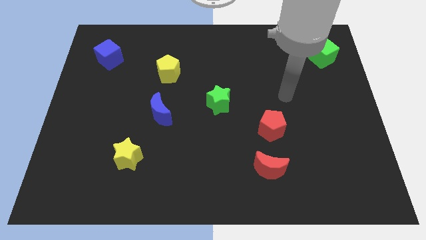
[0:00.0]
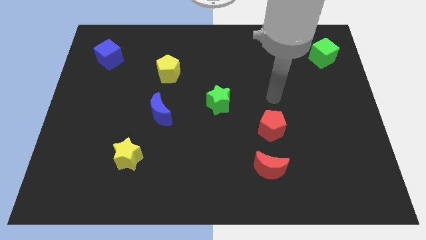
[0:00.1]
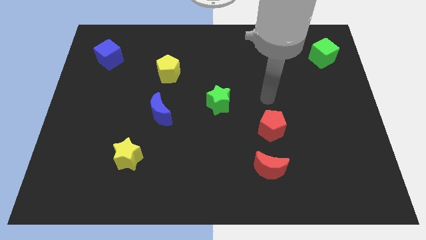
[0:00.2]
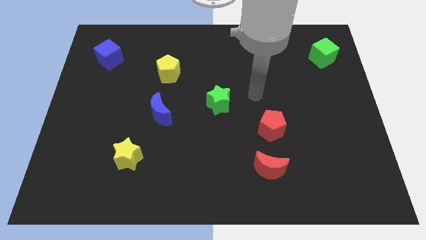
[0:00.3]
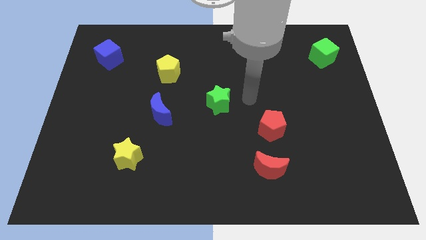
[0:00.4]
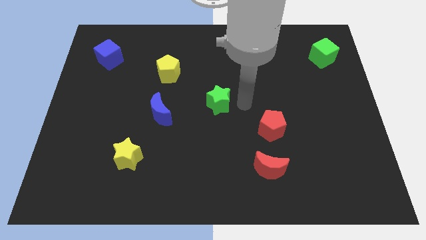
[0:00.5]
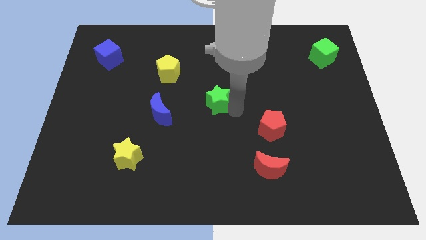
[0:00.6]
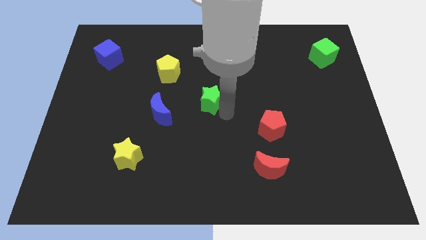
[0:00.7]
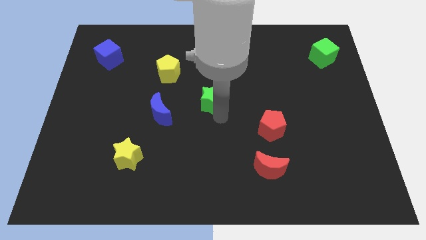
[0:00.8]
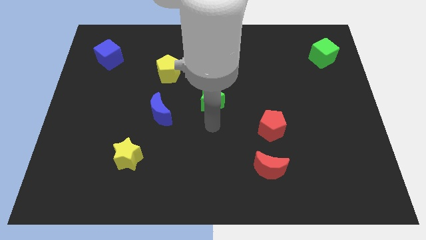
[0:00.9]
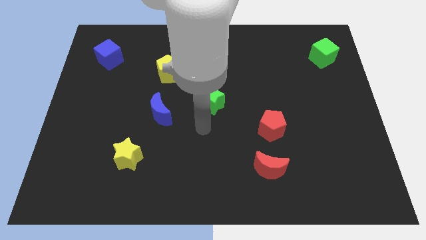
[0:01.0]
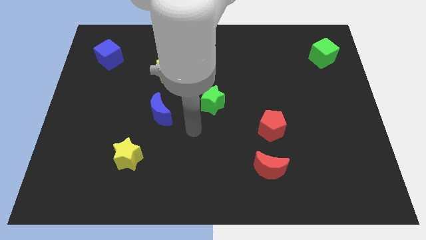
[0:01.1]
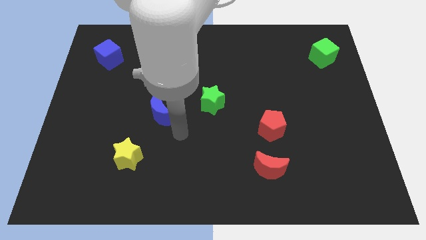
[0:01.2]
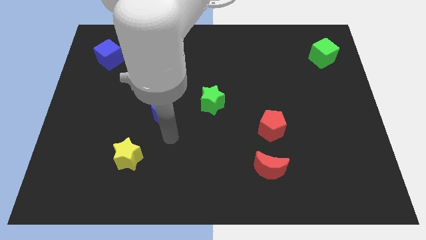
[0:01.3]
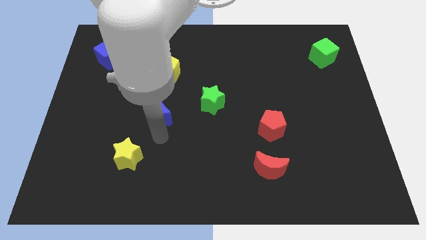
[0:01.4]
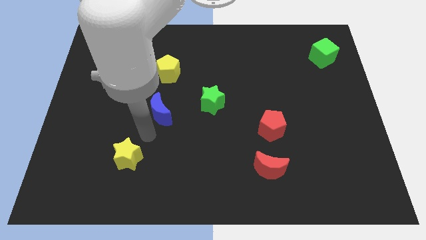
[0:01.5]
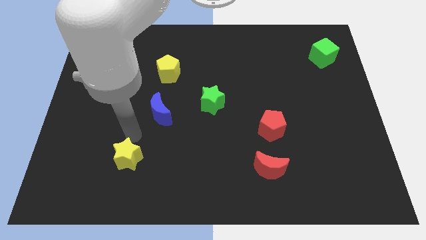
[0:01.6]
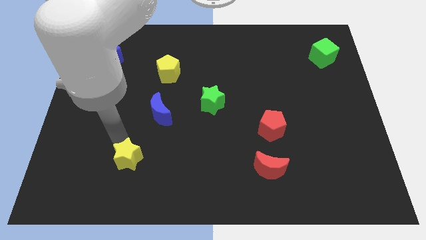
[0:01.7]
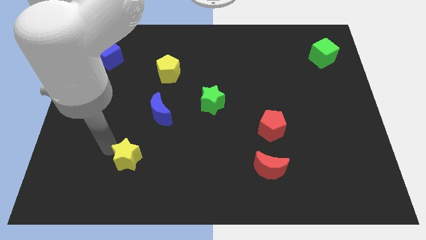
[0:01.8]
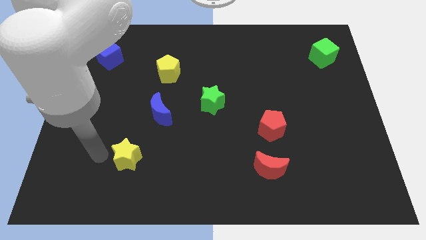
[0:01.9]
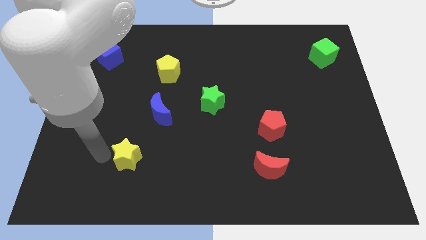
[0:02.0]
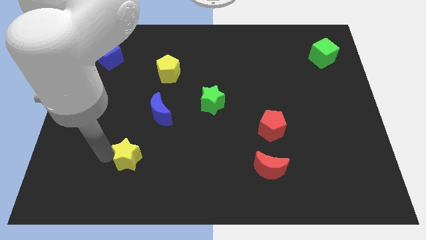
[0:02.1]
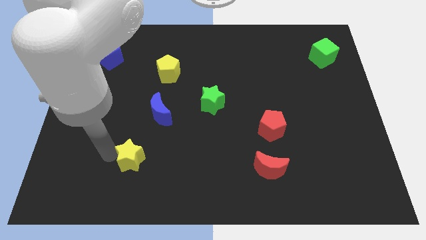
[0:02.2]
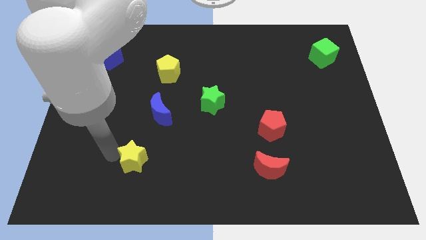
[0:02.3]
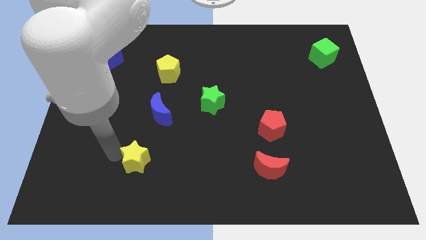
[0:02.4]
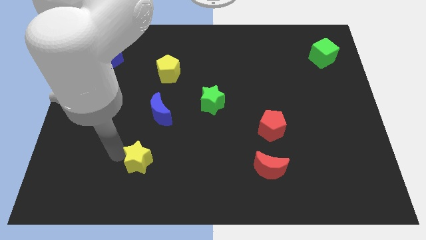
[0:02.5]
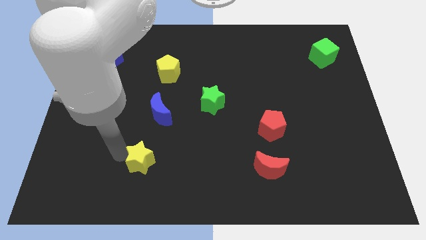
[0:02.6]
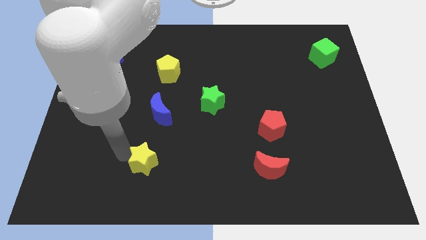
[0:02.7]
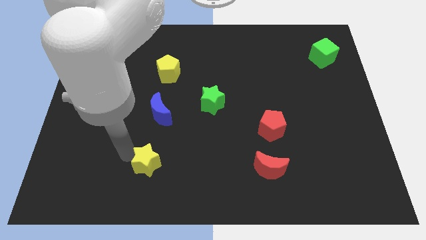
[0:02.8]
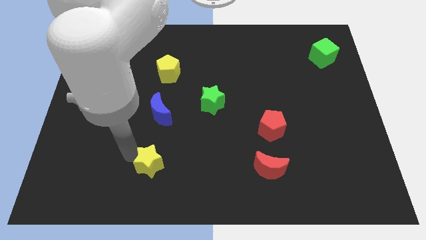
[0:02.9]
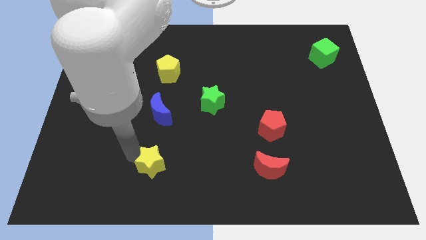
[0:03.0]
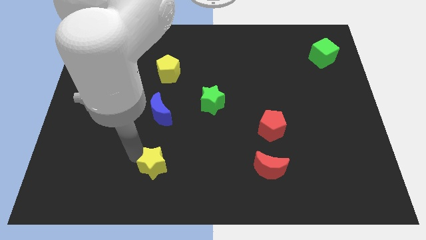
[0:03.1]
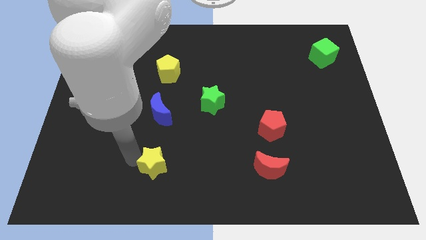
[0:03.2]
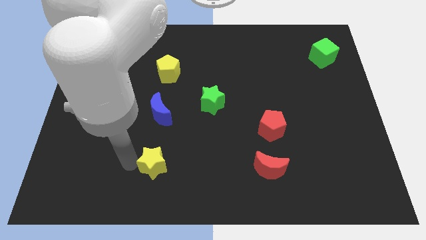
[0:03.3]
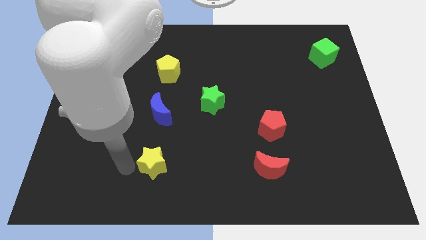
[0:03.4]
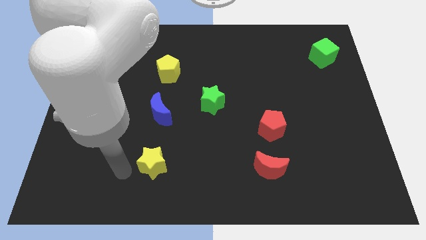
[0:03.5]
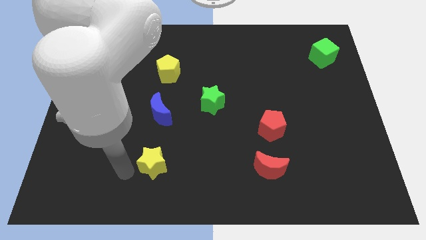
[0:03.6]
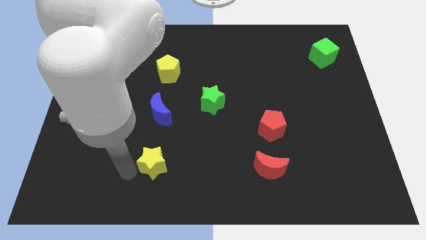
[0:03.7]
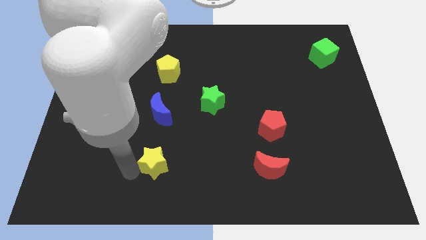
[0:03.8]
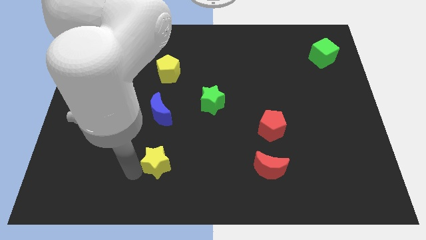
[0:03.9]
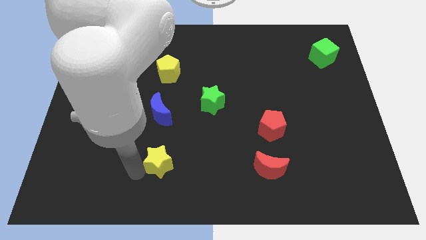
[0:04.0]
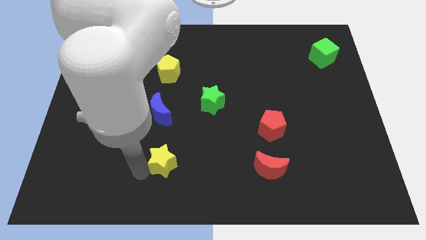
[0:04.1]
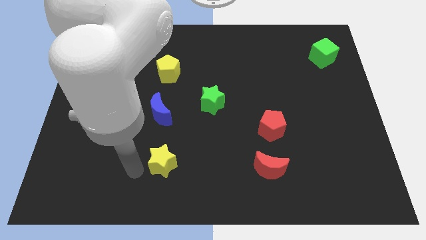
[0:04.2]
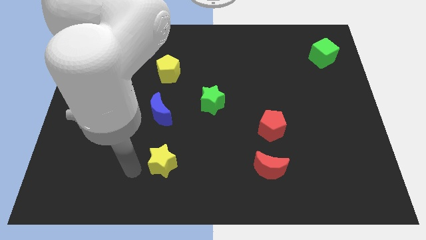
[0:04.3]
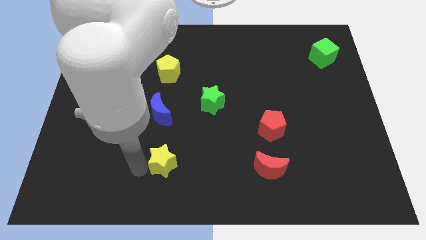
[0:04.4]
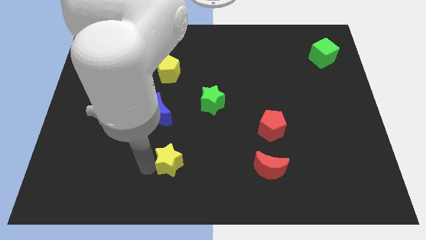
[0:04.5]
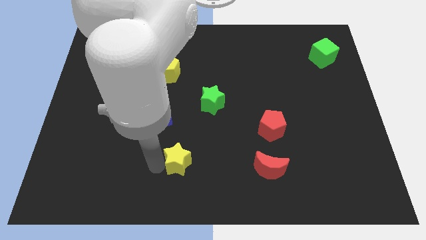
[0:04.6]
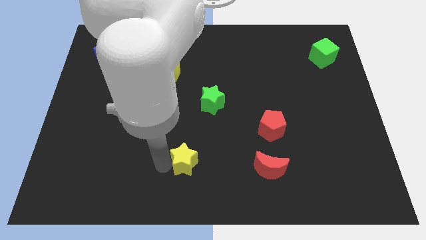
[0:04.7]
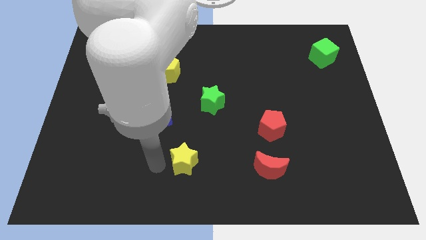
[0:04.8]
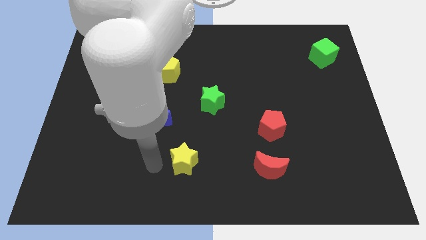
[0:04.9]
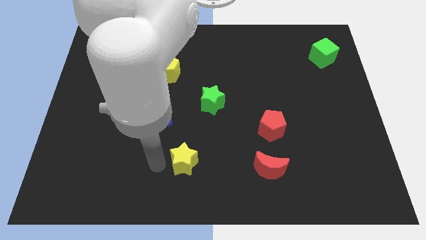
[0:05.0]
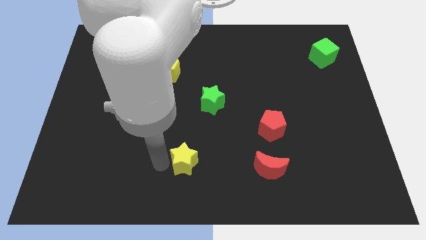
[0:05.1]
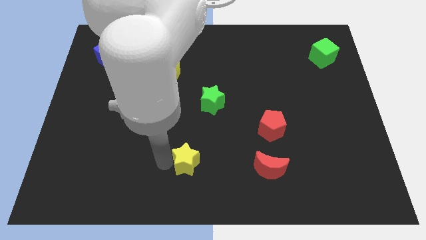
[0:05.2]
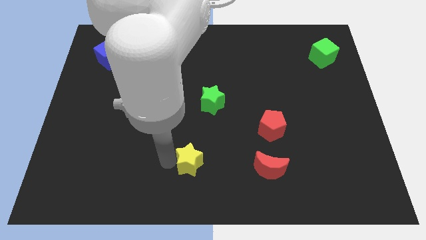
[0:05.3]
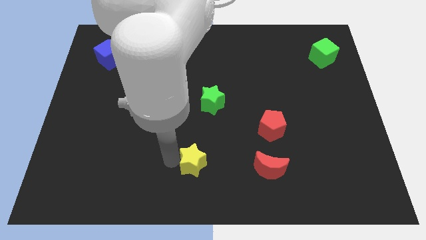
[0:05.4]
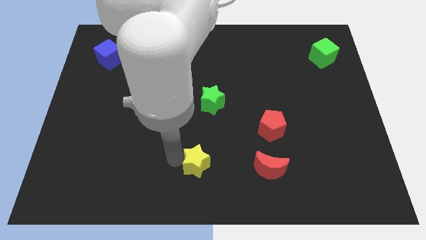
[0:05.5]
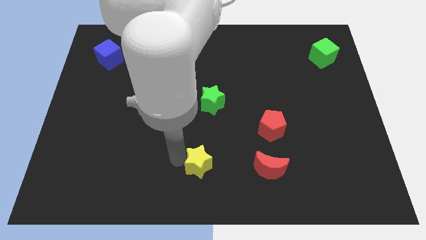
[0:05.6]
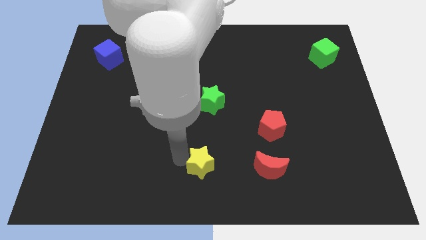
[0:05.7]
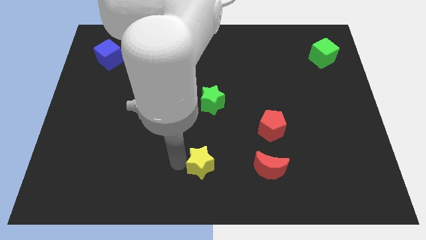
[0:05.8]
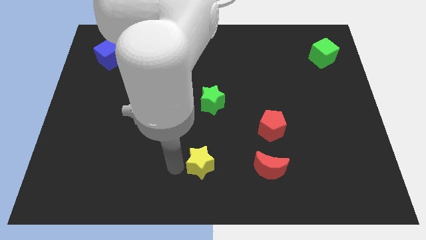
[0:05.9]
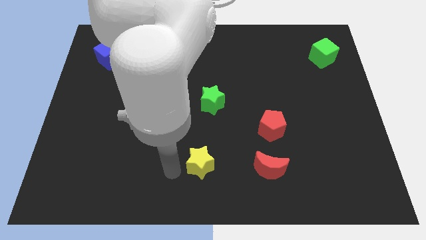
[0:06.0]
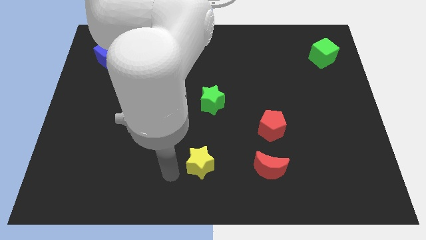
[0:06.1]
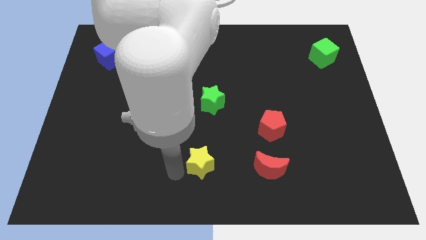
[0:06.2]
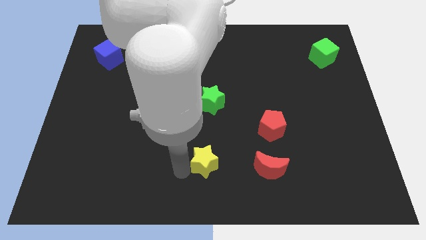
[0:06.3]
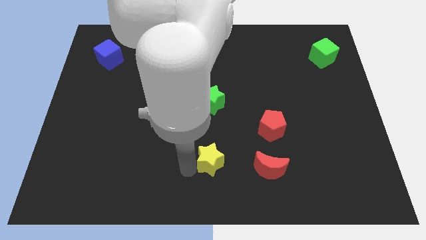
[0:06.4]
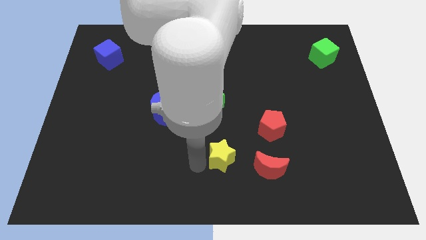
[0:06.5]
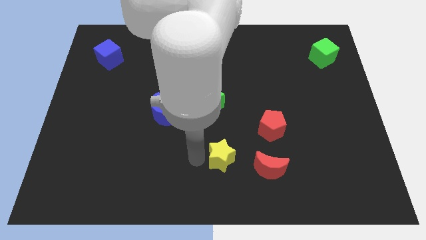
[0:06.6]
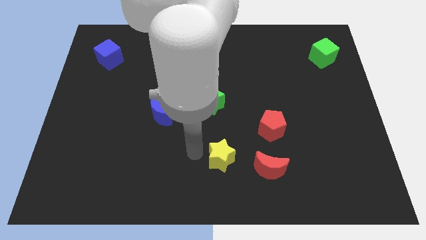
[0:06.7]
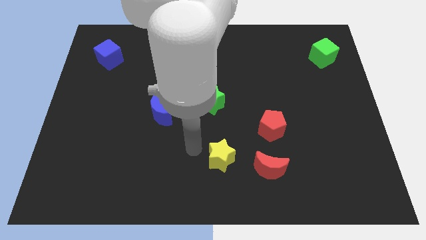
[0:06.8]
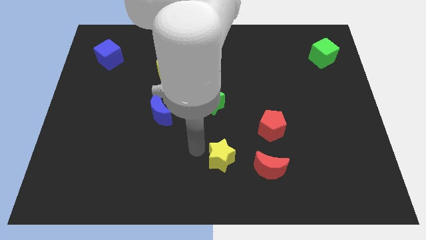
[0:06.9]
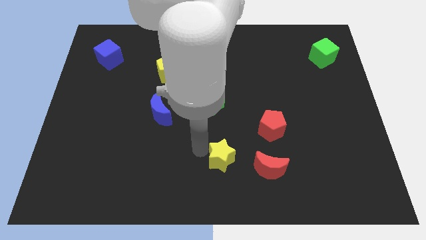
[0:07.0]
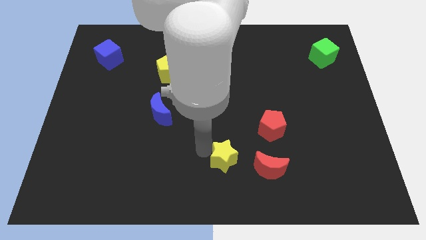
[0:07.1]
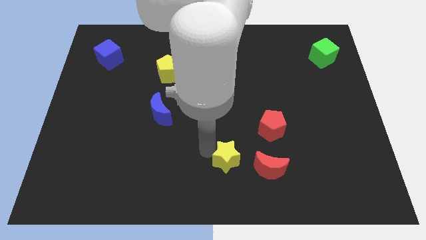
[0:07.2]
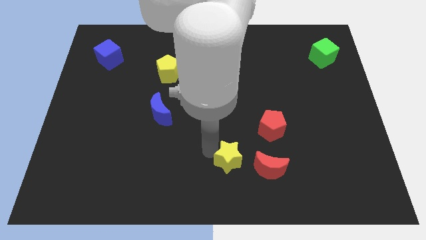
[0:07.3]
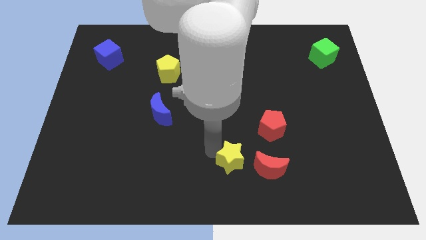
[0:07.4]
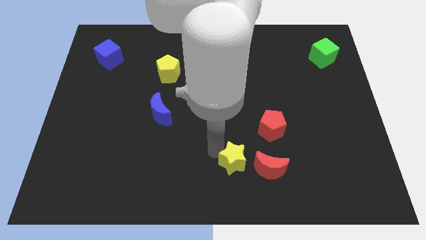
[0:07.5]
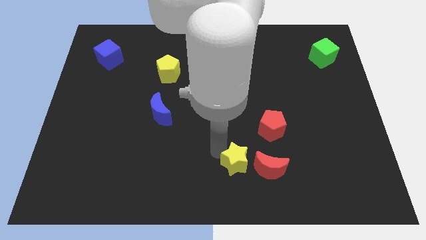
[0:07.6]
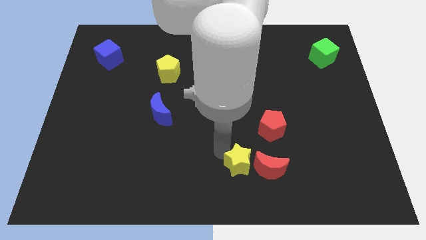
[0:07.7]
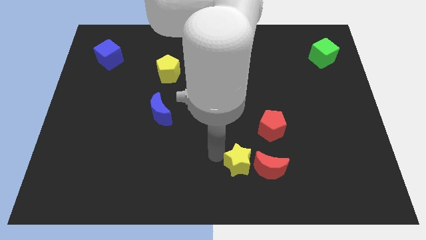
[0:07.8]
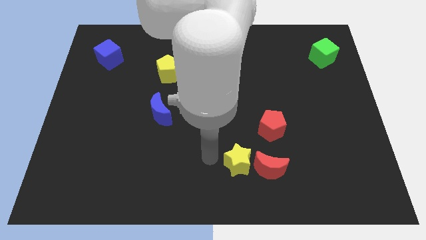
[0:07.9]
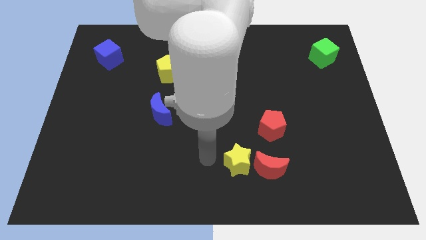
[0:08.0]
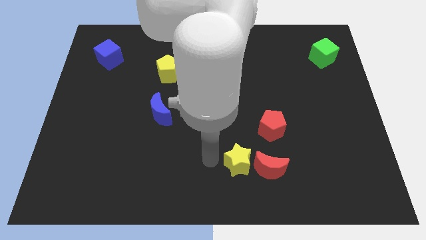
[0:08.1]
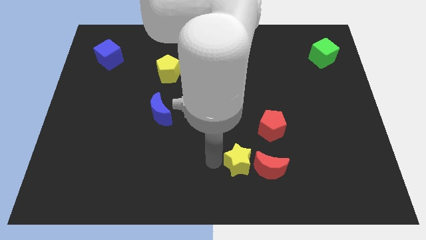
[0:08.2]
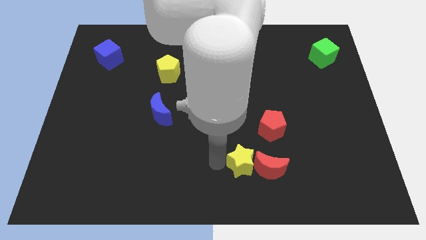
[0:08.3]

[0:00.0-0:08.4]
slide the yellow star close to the red moon
